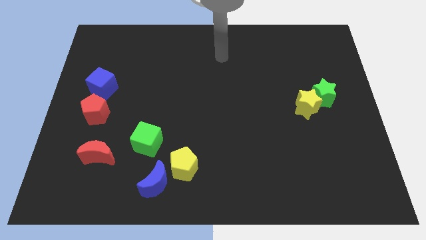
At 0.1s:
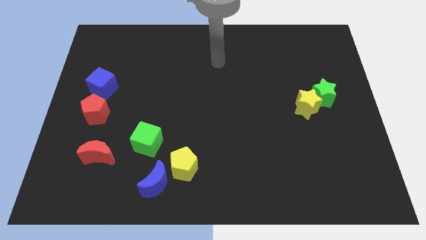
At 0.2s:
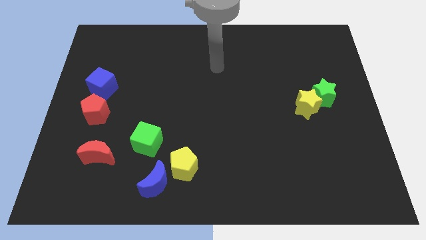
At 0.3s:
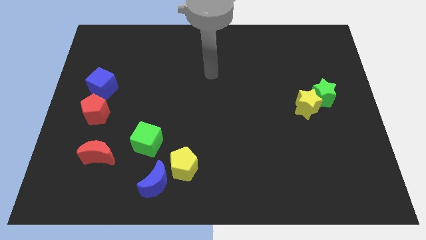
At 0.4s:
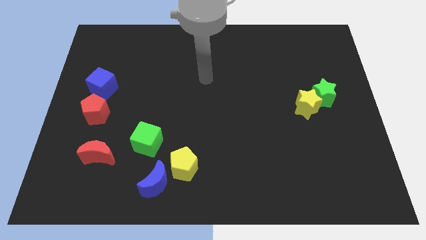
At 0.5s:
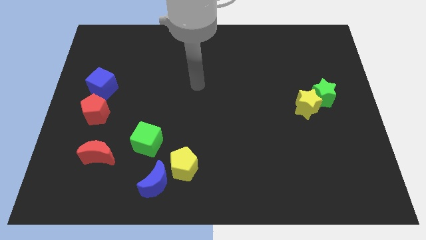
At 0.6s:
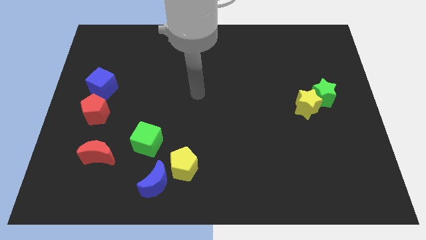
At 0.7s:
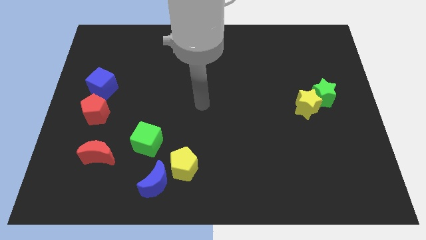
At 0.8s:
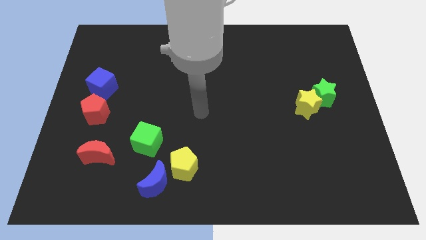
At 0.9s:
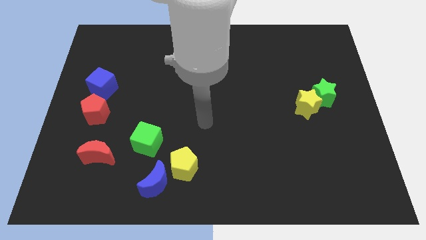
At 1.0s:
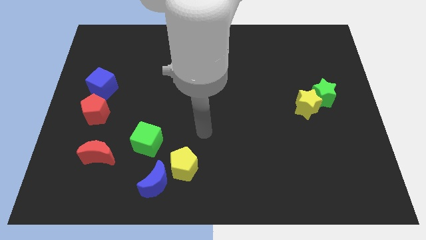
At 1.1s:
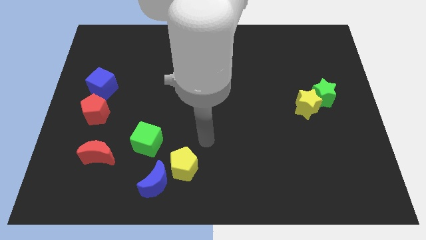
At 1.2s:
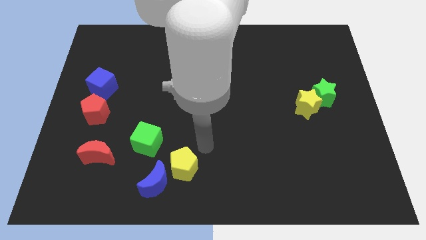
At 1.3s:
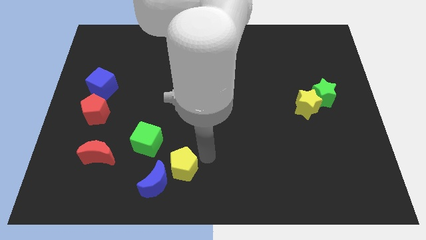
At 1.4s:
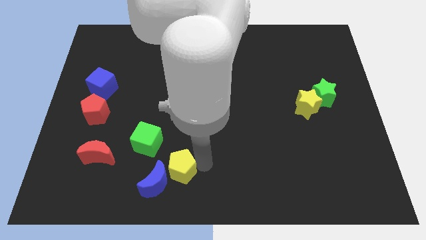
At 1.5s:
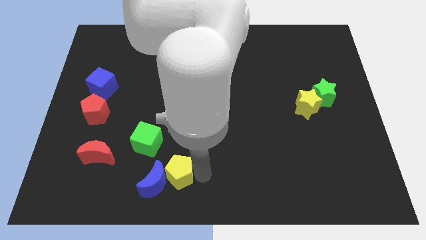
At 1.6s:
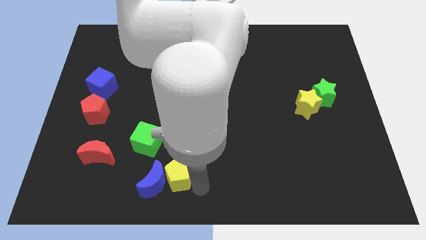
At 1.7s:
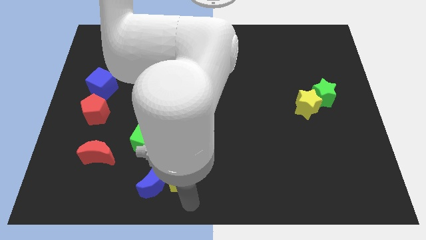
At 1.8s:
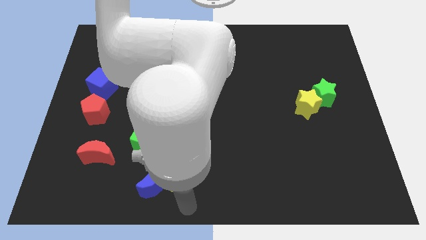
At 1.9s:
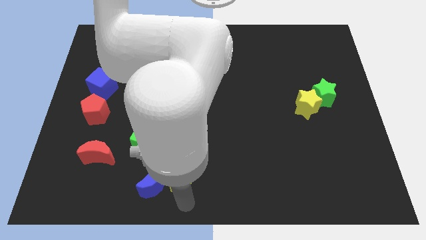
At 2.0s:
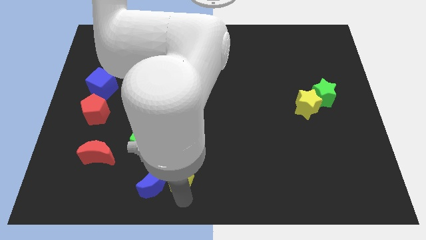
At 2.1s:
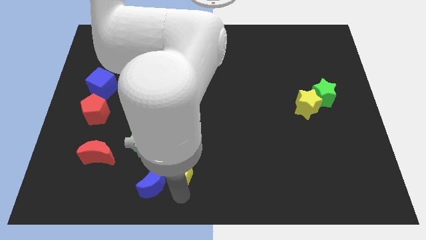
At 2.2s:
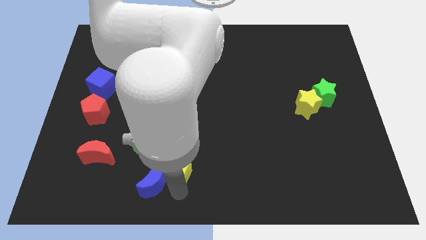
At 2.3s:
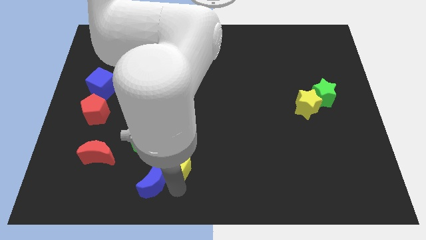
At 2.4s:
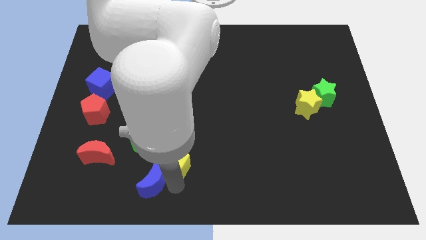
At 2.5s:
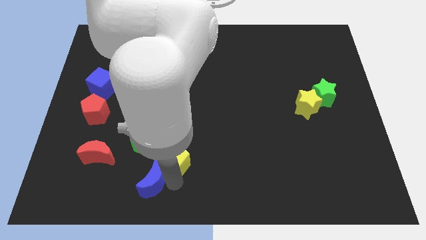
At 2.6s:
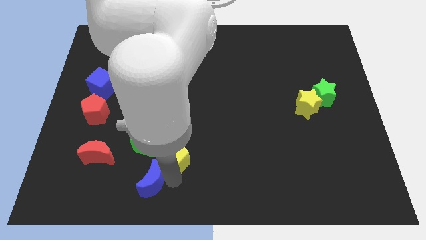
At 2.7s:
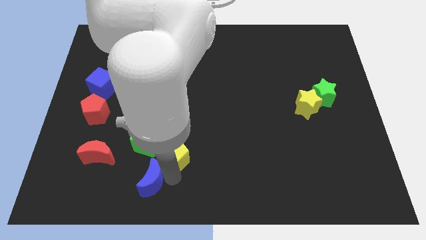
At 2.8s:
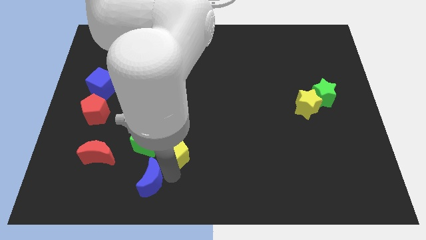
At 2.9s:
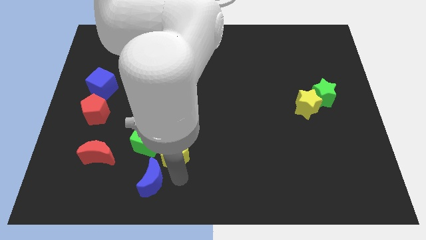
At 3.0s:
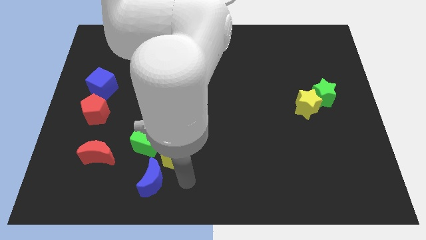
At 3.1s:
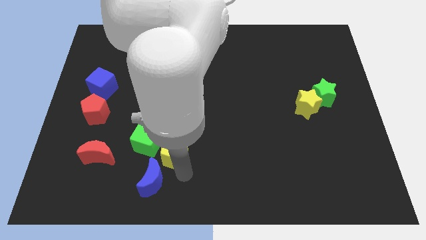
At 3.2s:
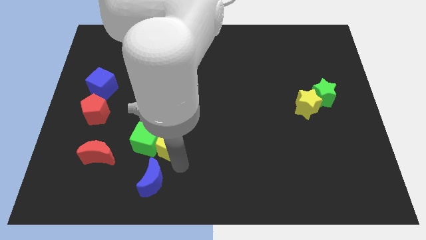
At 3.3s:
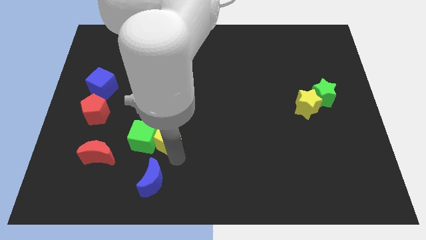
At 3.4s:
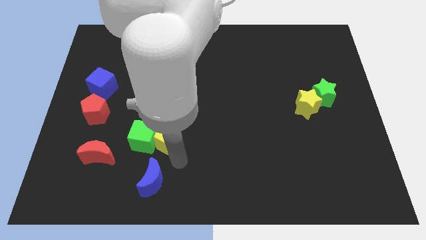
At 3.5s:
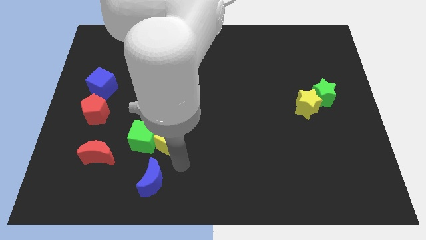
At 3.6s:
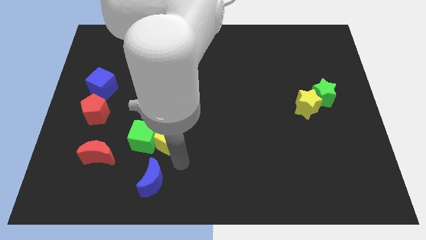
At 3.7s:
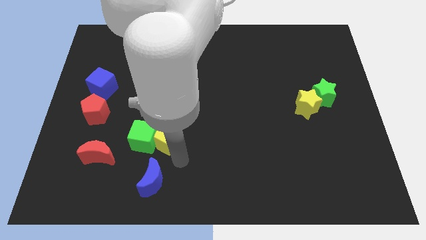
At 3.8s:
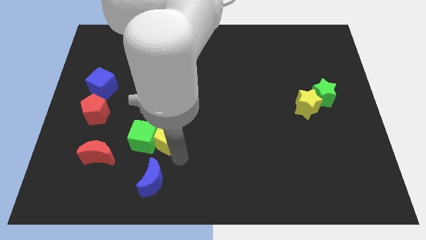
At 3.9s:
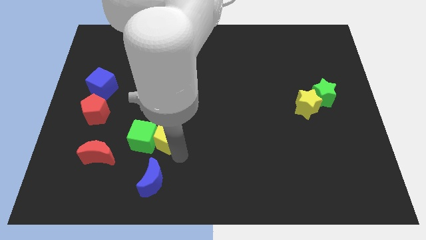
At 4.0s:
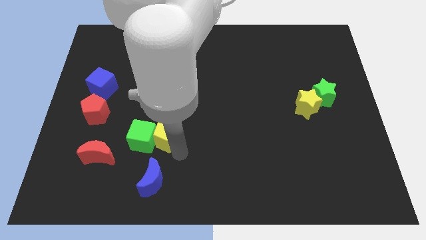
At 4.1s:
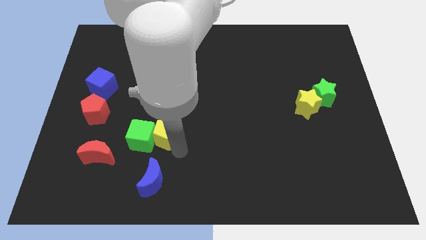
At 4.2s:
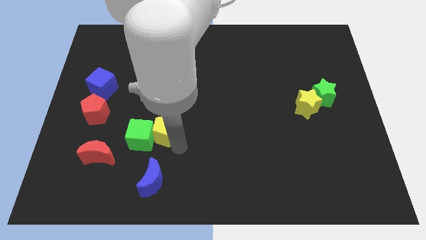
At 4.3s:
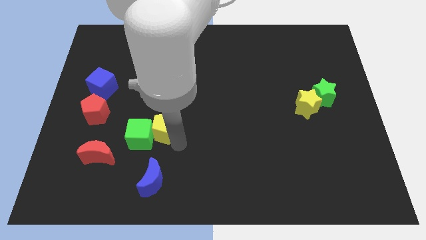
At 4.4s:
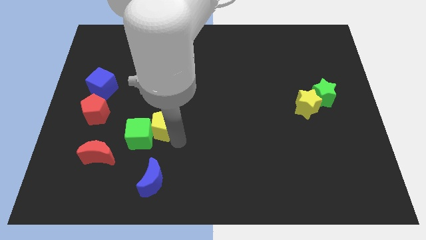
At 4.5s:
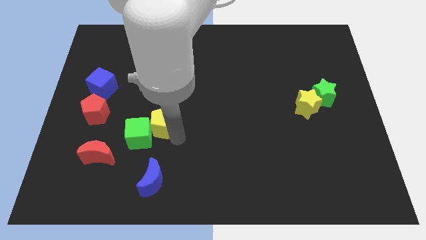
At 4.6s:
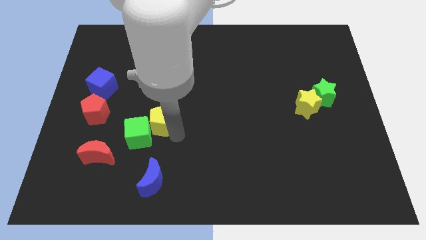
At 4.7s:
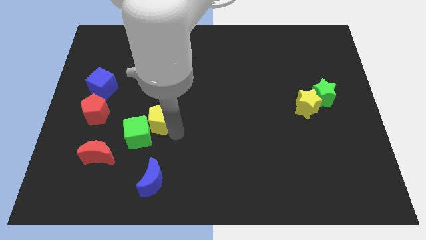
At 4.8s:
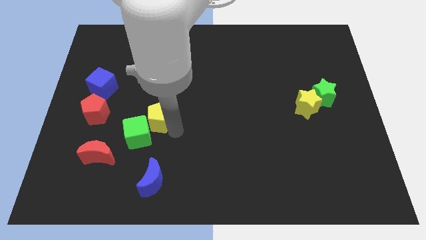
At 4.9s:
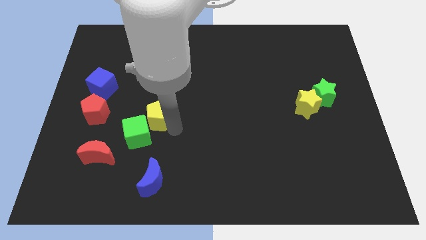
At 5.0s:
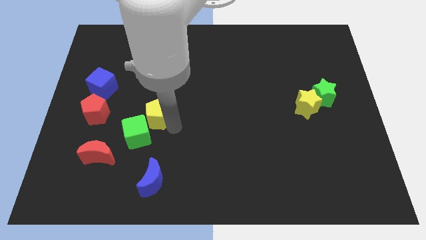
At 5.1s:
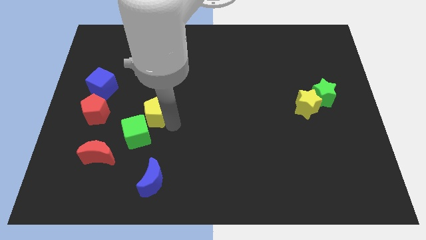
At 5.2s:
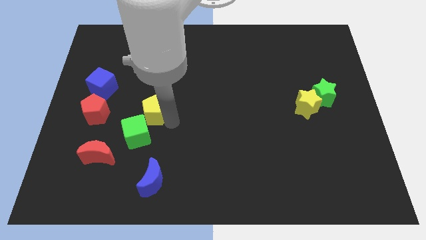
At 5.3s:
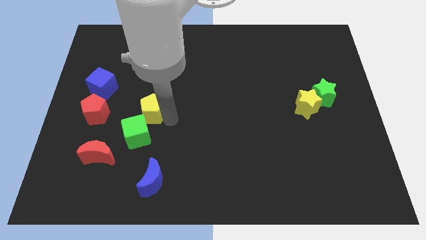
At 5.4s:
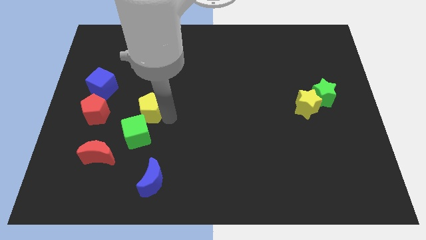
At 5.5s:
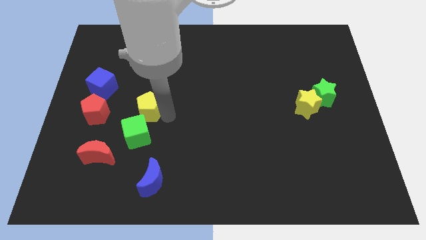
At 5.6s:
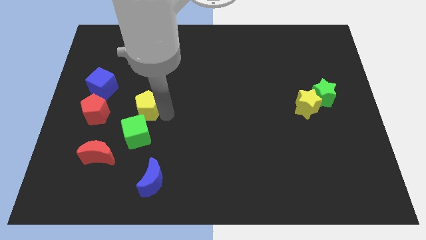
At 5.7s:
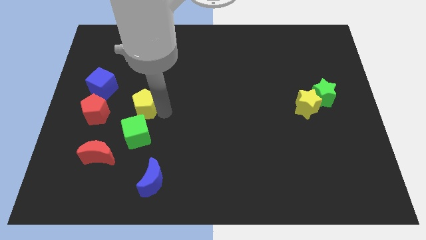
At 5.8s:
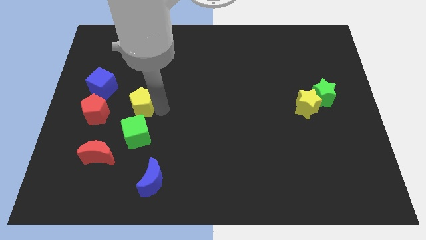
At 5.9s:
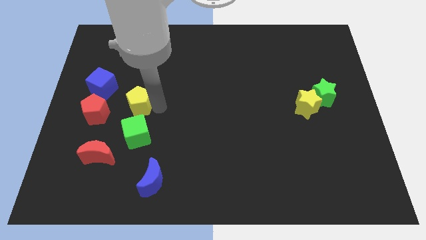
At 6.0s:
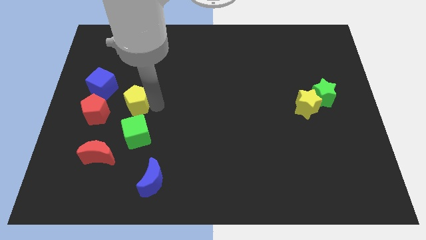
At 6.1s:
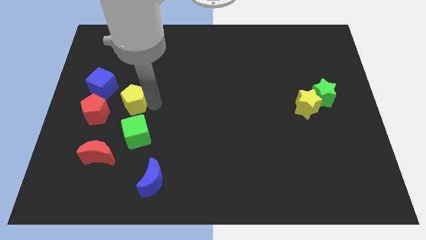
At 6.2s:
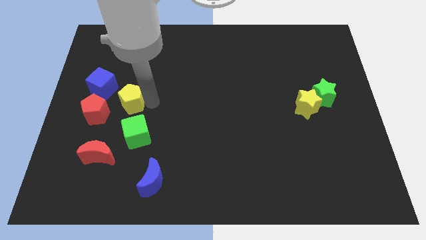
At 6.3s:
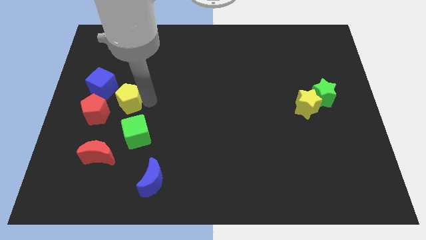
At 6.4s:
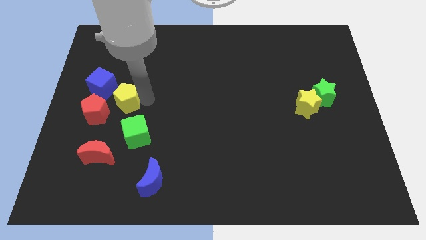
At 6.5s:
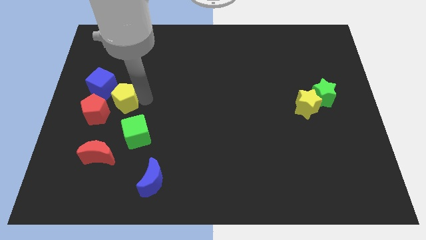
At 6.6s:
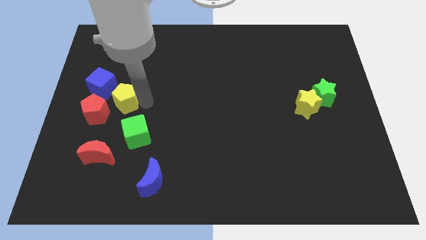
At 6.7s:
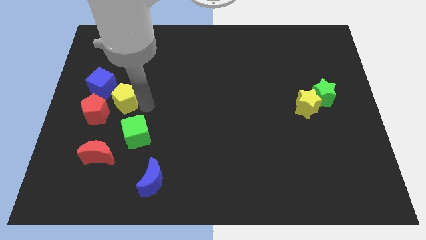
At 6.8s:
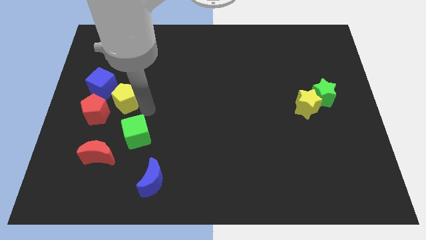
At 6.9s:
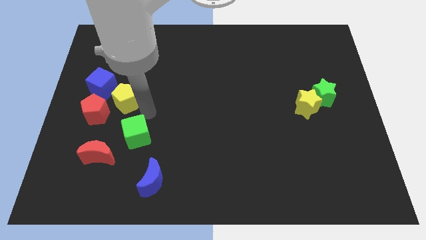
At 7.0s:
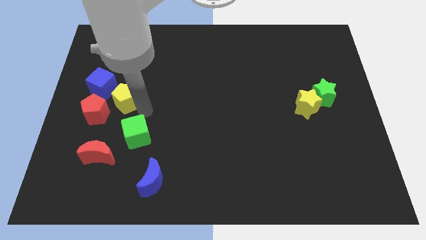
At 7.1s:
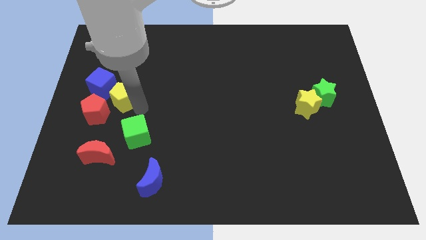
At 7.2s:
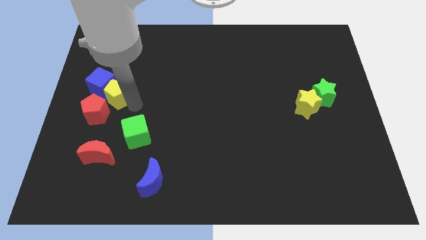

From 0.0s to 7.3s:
push the yellow pentagon towards the blue cube

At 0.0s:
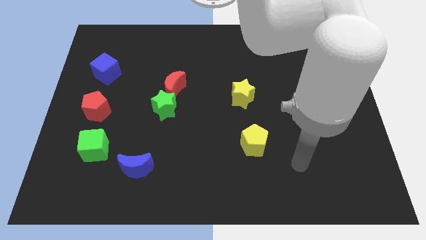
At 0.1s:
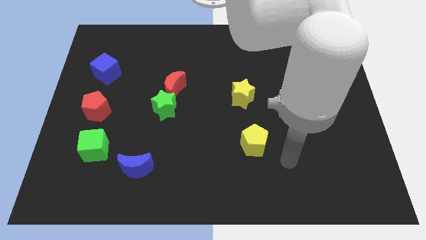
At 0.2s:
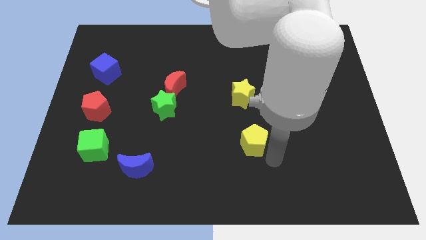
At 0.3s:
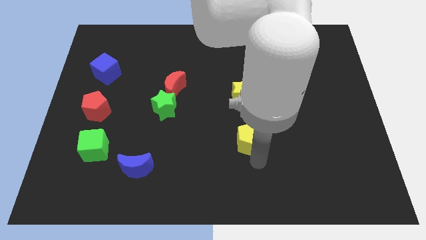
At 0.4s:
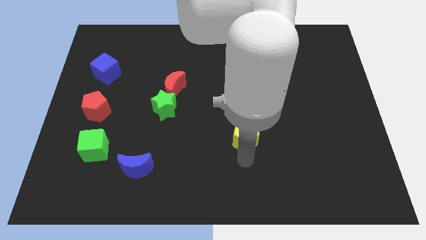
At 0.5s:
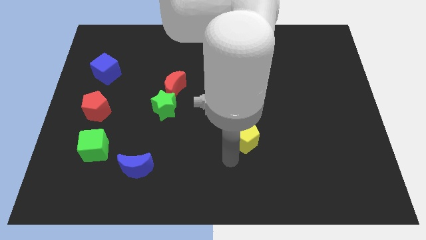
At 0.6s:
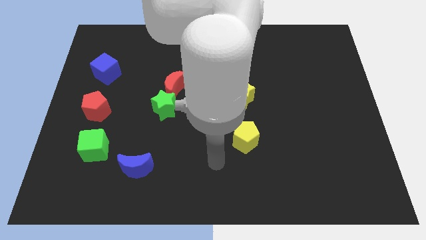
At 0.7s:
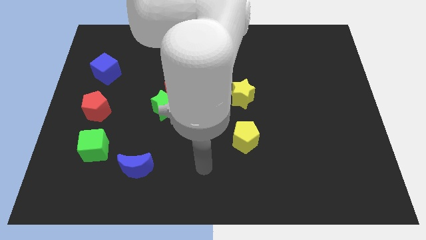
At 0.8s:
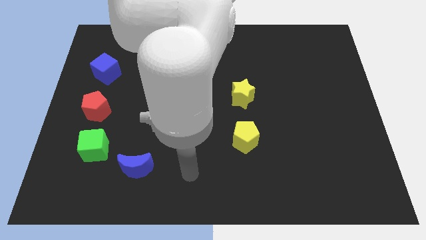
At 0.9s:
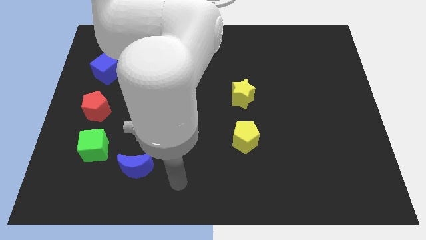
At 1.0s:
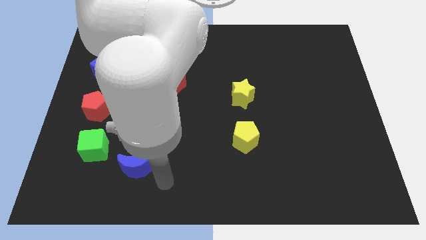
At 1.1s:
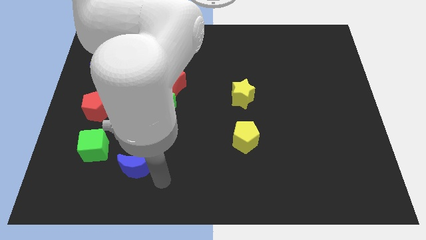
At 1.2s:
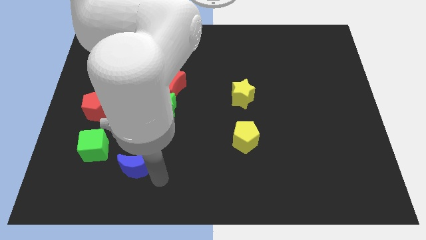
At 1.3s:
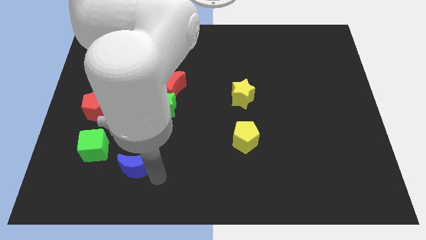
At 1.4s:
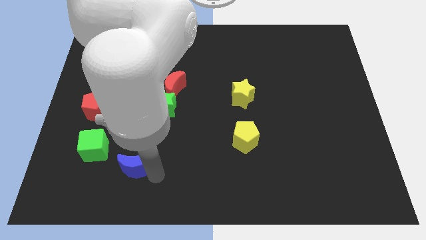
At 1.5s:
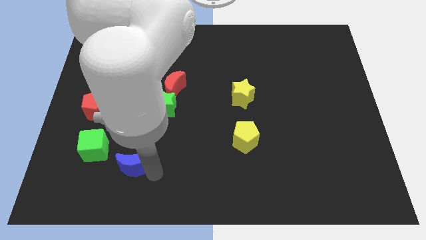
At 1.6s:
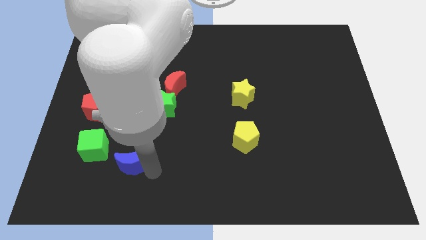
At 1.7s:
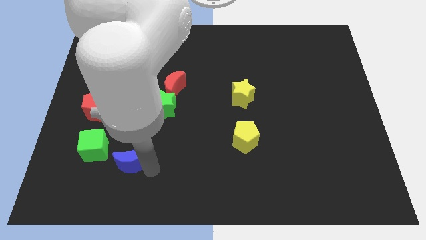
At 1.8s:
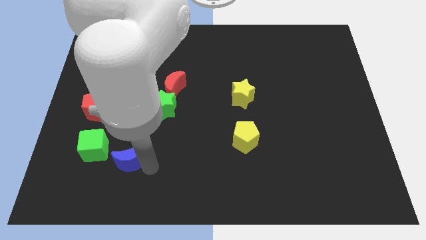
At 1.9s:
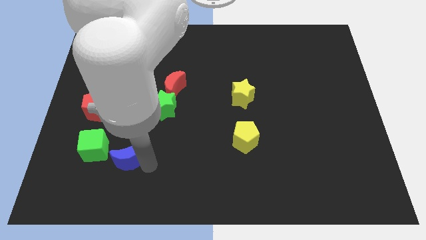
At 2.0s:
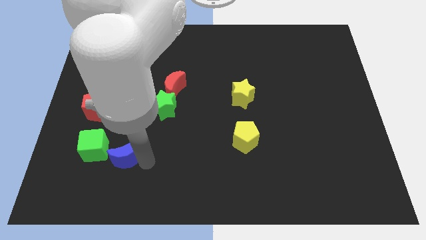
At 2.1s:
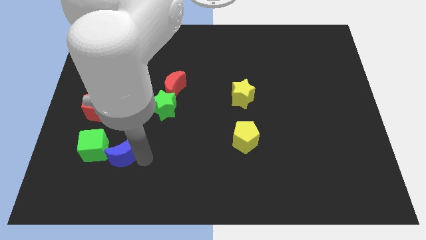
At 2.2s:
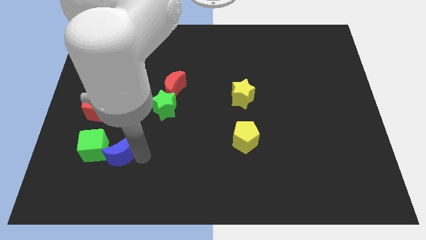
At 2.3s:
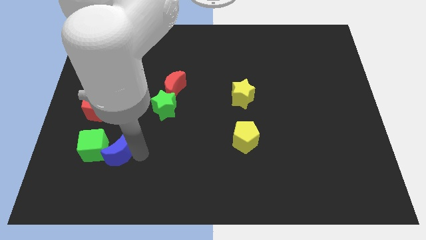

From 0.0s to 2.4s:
push the blue moon next to the green cube
